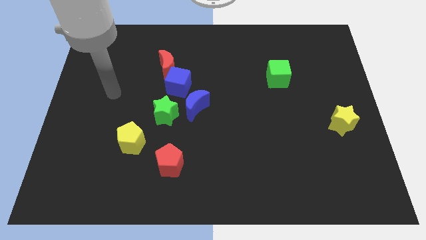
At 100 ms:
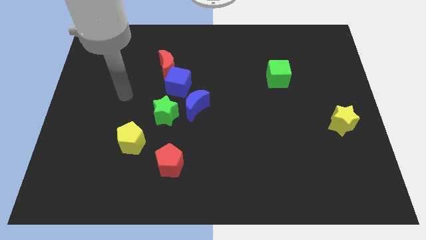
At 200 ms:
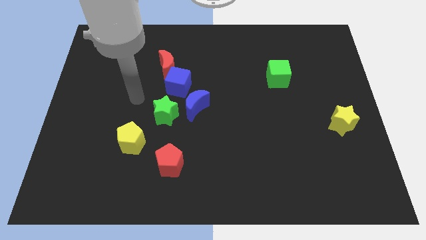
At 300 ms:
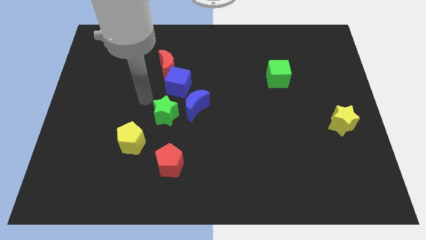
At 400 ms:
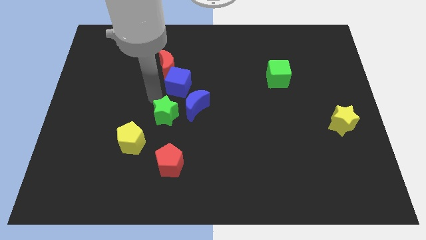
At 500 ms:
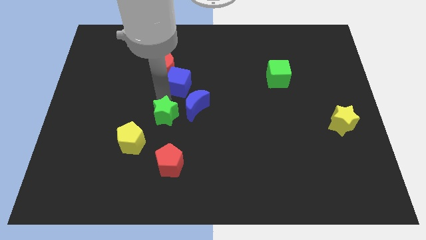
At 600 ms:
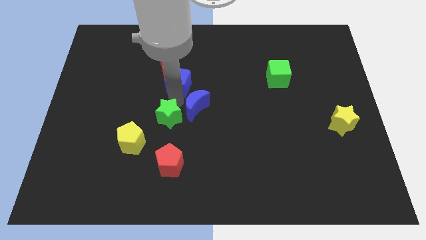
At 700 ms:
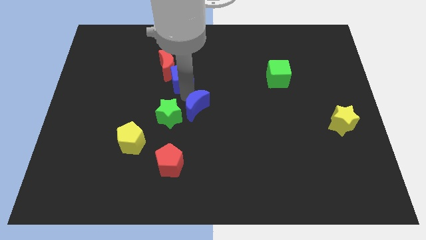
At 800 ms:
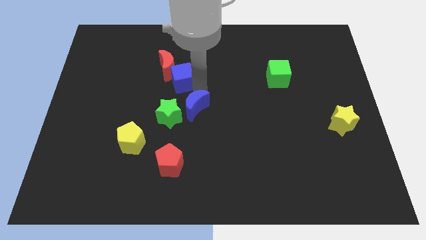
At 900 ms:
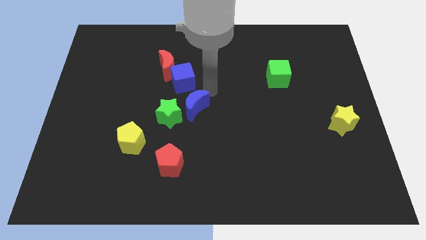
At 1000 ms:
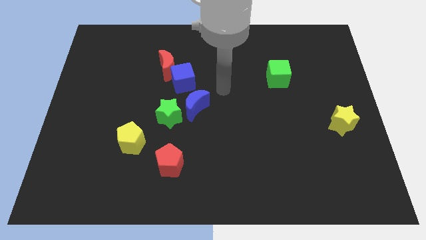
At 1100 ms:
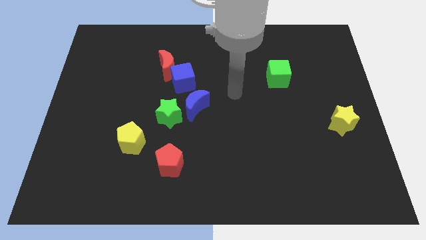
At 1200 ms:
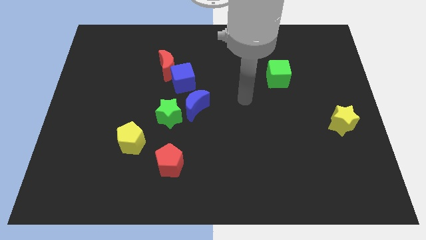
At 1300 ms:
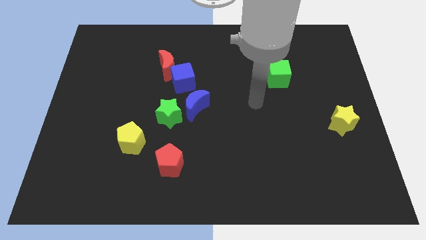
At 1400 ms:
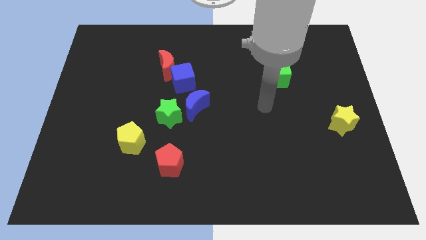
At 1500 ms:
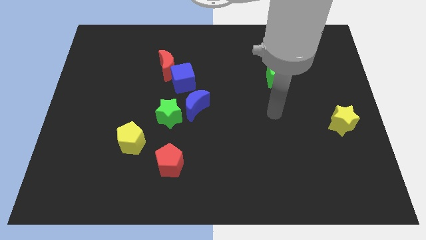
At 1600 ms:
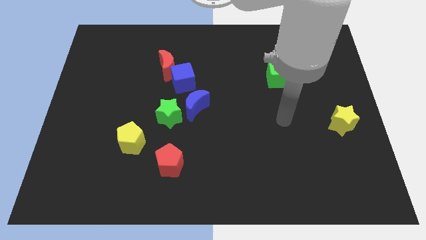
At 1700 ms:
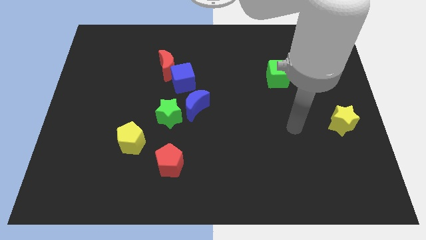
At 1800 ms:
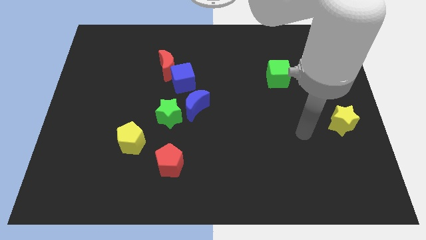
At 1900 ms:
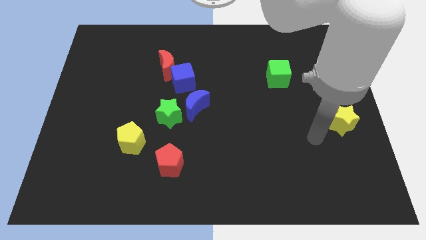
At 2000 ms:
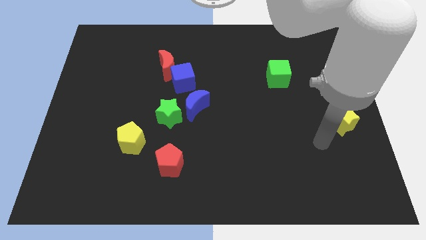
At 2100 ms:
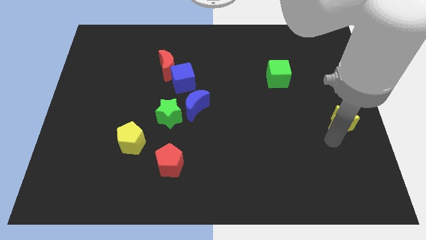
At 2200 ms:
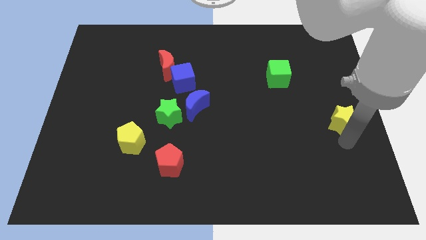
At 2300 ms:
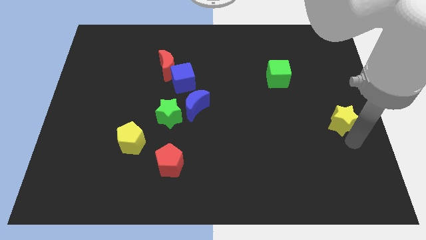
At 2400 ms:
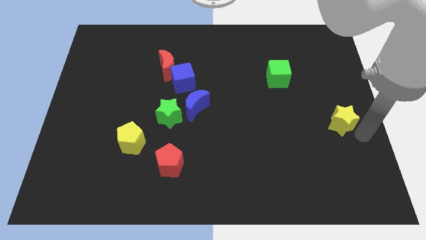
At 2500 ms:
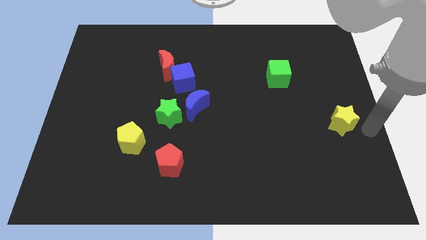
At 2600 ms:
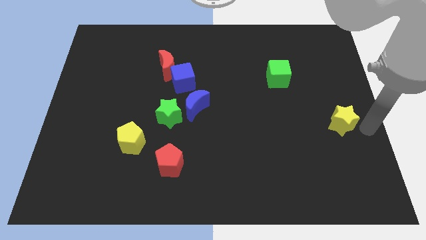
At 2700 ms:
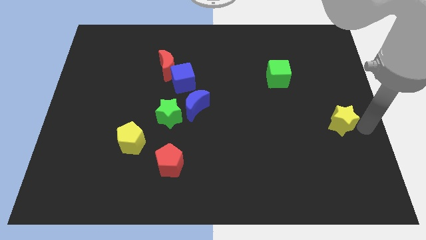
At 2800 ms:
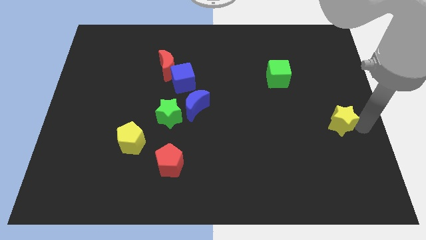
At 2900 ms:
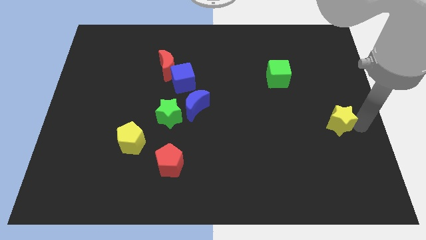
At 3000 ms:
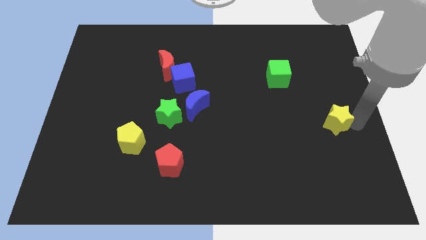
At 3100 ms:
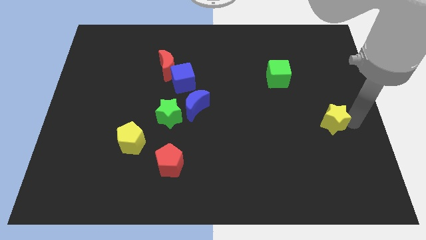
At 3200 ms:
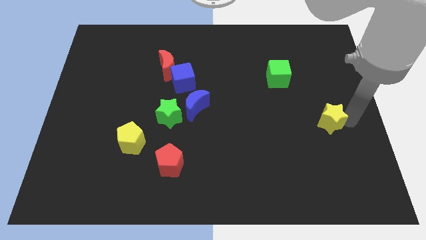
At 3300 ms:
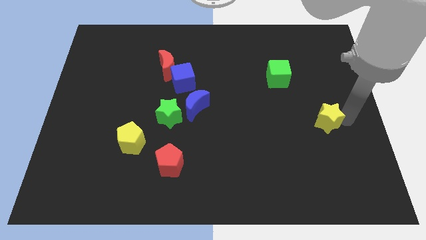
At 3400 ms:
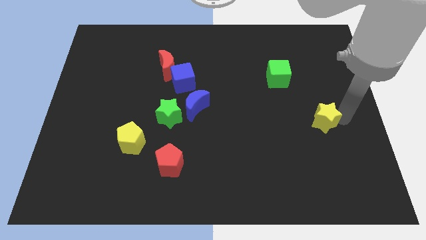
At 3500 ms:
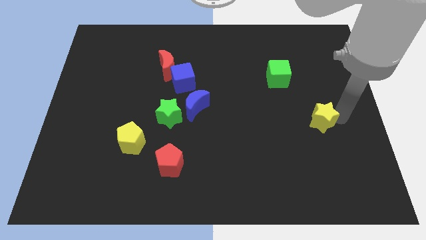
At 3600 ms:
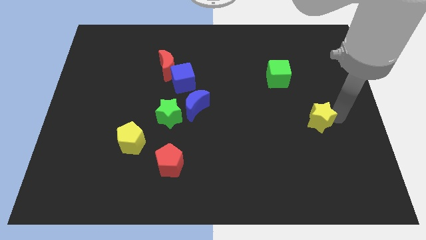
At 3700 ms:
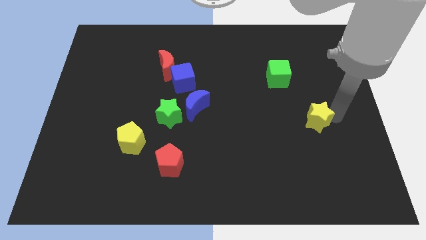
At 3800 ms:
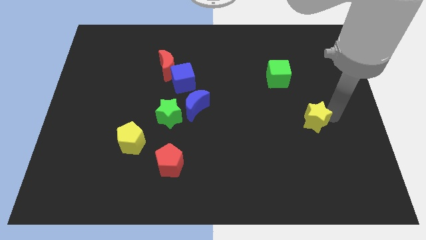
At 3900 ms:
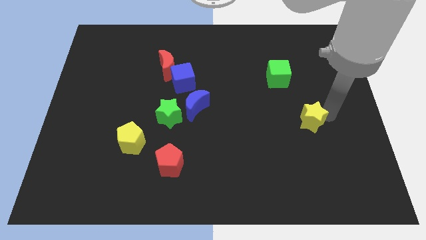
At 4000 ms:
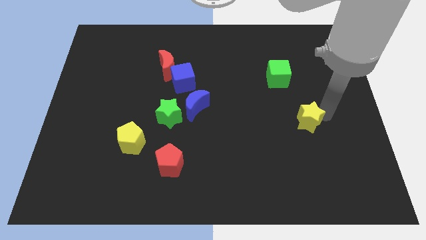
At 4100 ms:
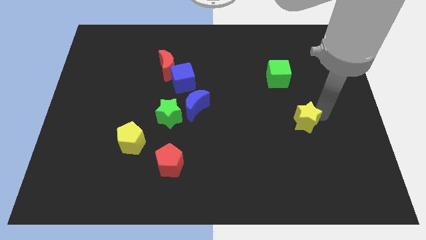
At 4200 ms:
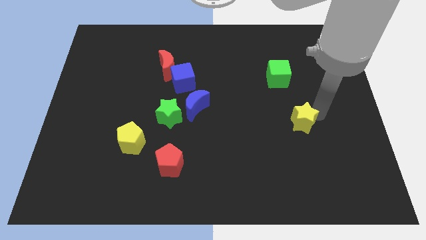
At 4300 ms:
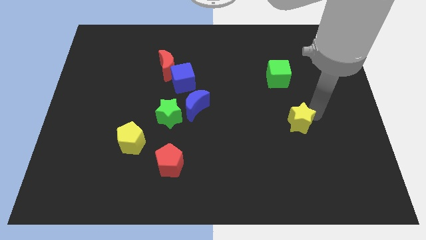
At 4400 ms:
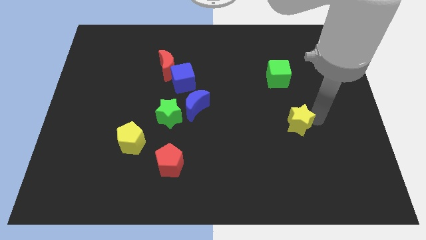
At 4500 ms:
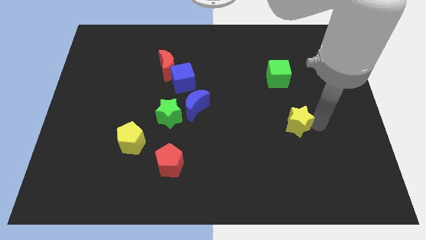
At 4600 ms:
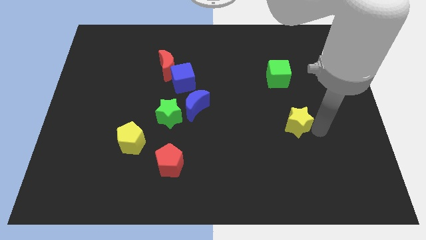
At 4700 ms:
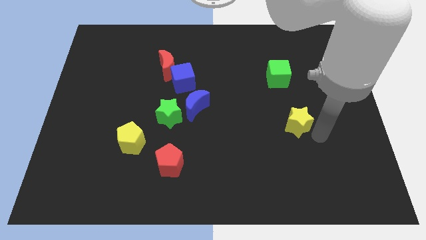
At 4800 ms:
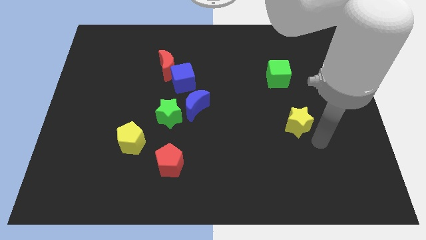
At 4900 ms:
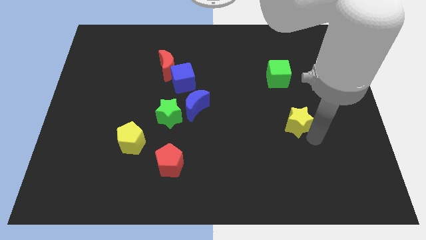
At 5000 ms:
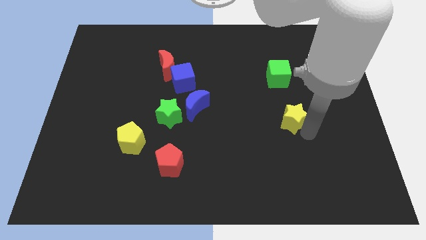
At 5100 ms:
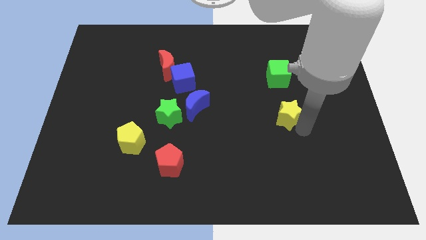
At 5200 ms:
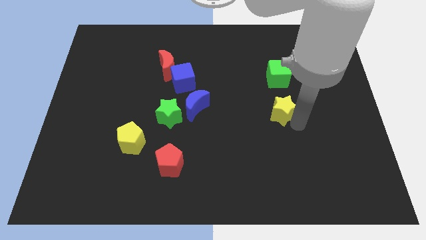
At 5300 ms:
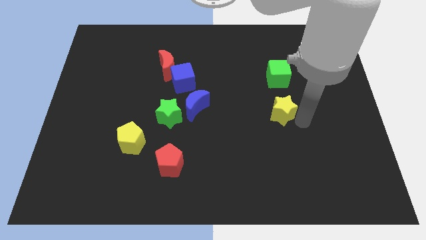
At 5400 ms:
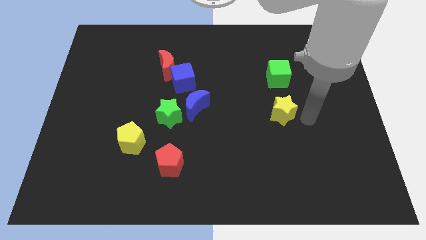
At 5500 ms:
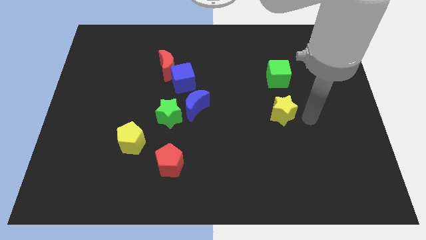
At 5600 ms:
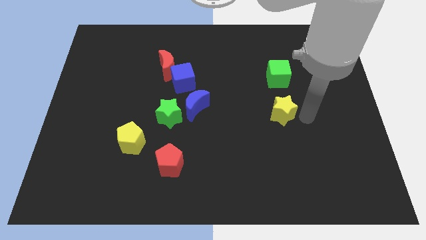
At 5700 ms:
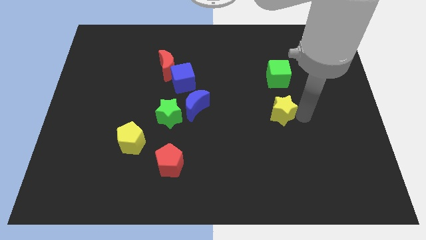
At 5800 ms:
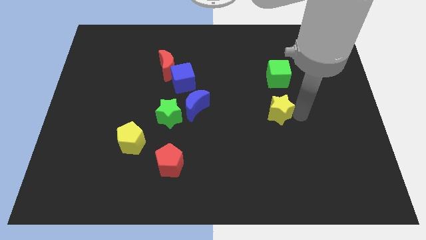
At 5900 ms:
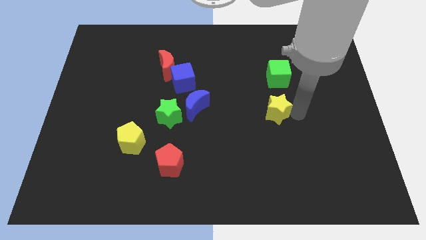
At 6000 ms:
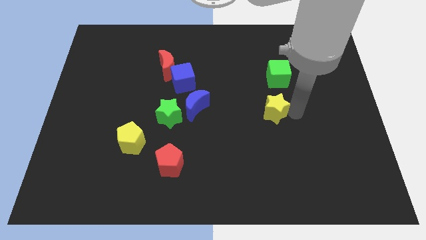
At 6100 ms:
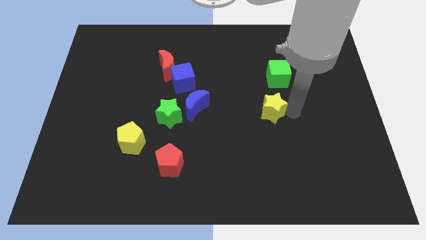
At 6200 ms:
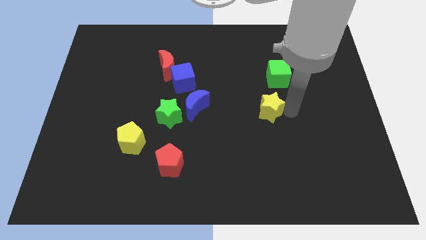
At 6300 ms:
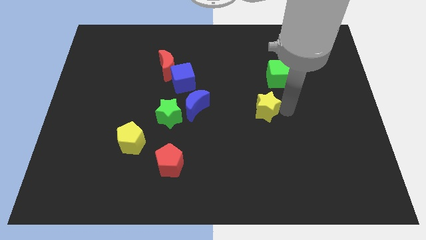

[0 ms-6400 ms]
put the yellow star to the middle of the board
